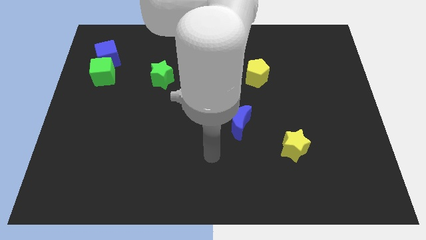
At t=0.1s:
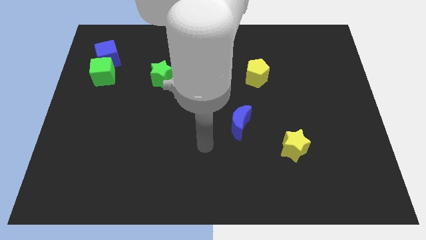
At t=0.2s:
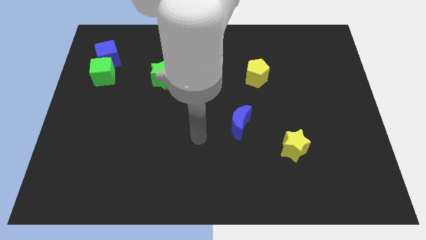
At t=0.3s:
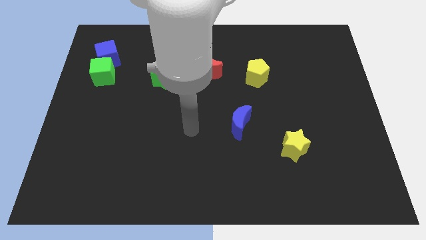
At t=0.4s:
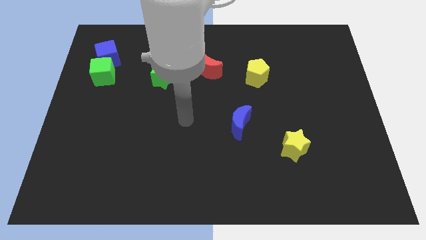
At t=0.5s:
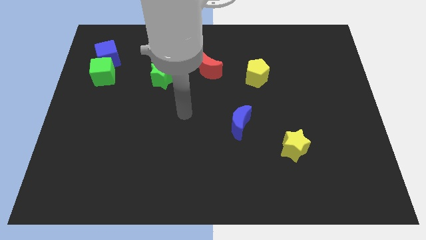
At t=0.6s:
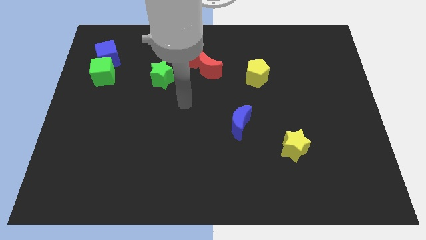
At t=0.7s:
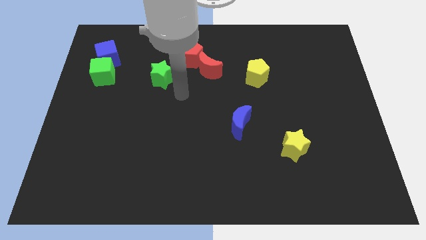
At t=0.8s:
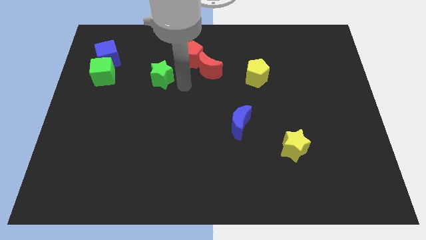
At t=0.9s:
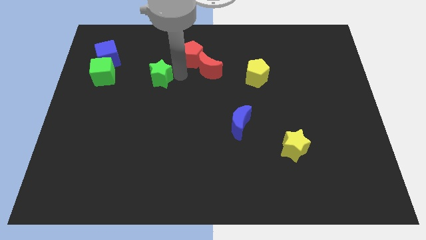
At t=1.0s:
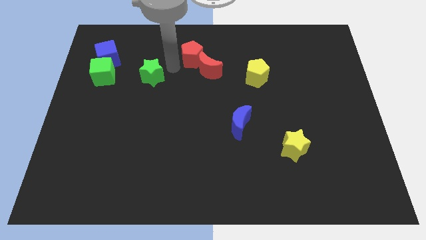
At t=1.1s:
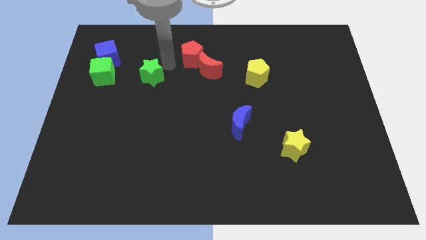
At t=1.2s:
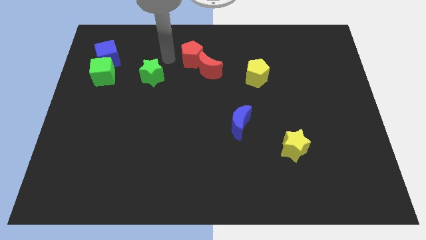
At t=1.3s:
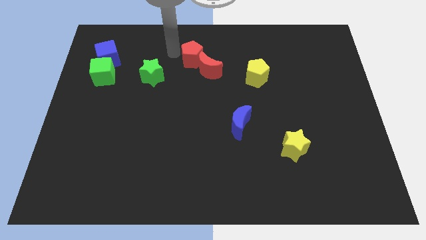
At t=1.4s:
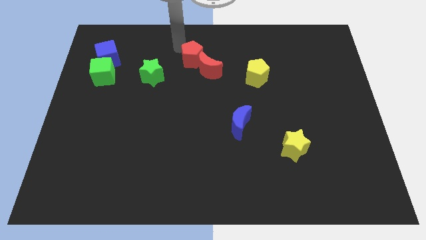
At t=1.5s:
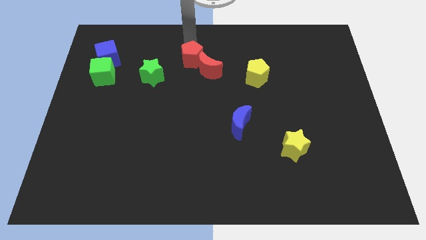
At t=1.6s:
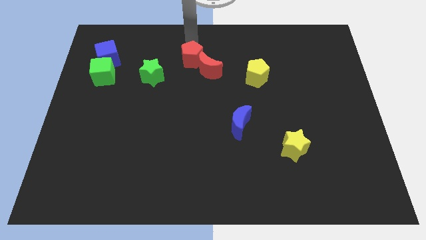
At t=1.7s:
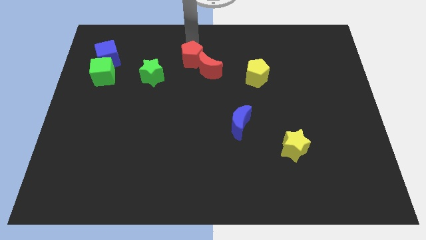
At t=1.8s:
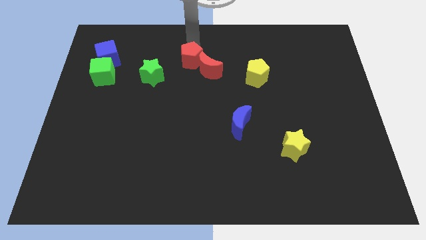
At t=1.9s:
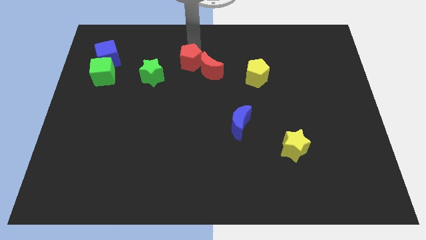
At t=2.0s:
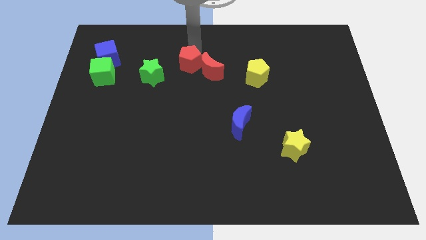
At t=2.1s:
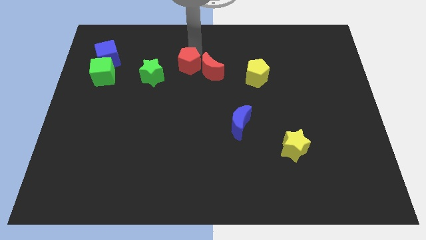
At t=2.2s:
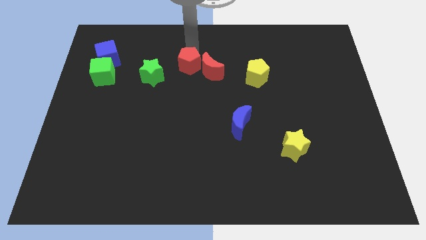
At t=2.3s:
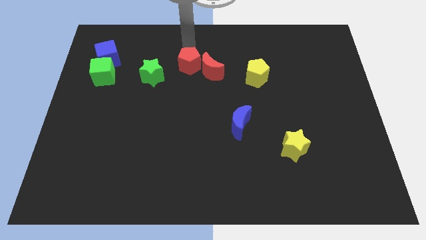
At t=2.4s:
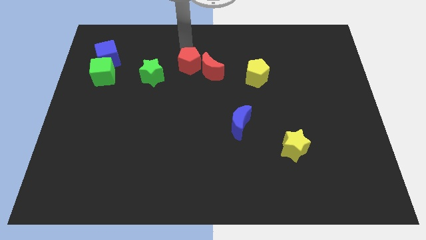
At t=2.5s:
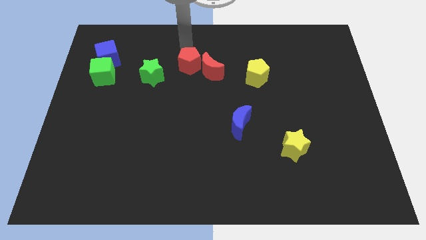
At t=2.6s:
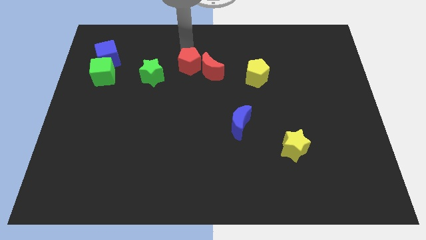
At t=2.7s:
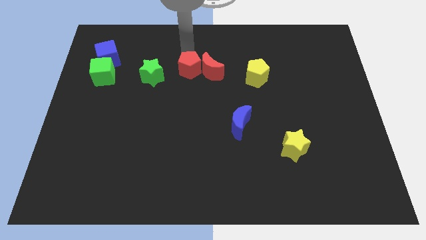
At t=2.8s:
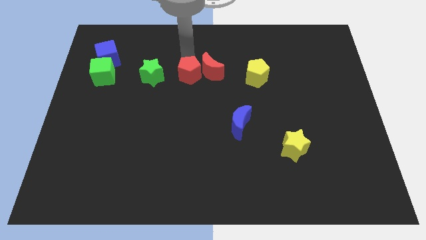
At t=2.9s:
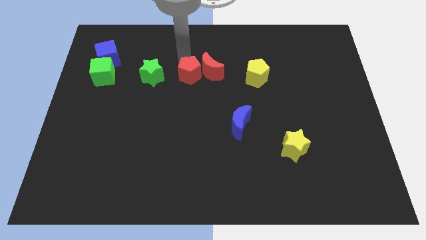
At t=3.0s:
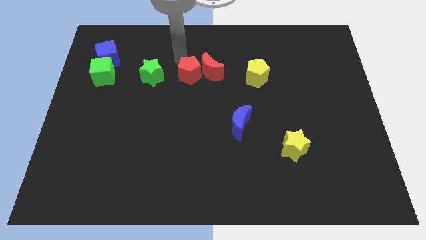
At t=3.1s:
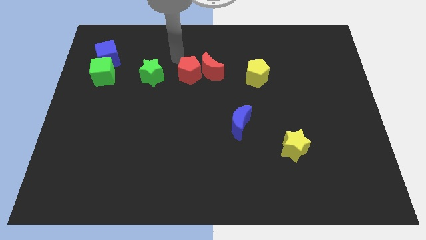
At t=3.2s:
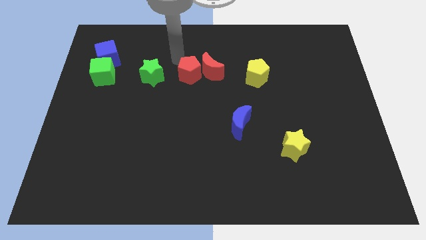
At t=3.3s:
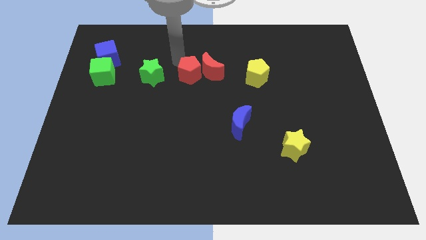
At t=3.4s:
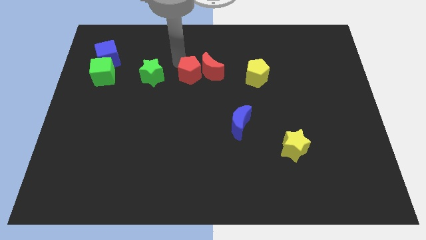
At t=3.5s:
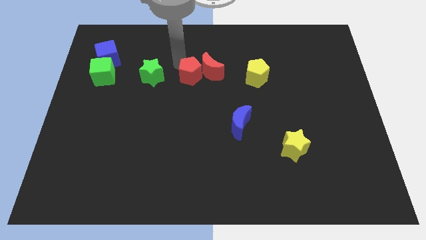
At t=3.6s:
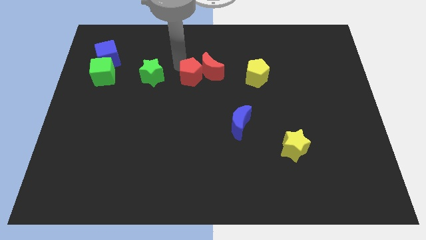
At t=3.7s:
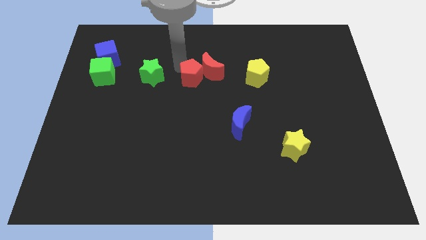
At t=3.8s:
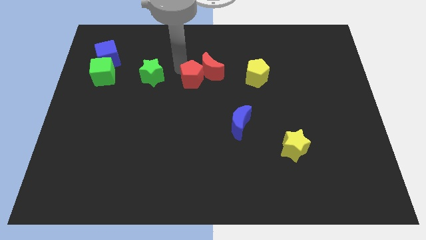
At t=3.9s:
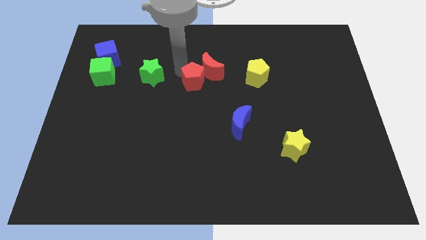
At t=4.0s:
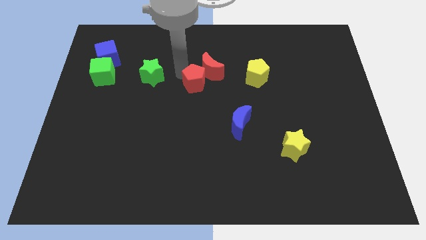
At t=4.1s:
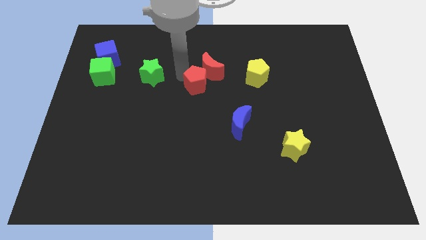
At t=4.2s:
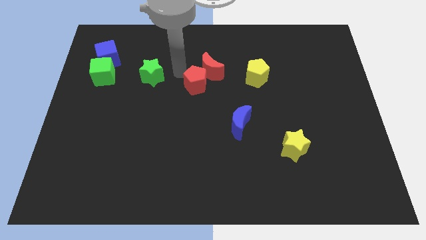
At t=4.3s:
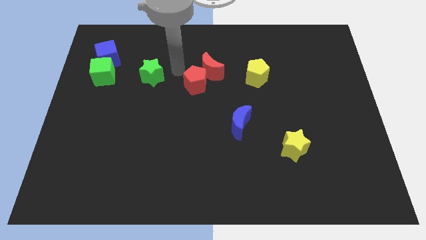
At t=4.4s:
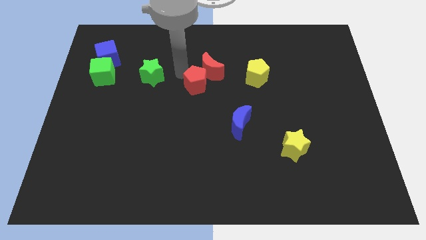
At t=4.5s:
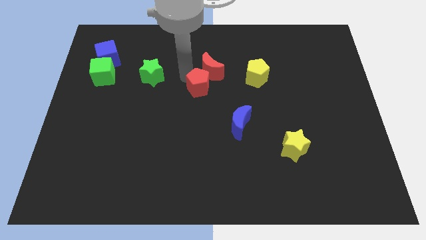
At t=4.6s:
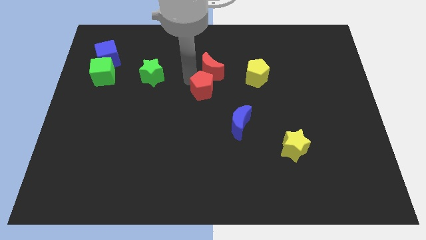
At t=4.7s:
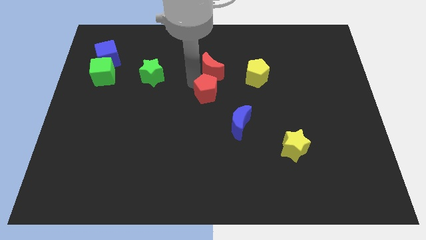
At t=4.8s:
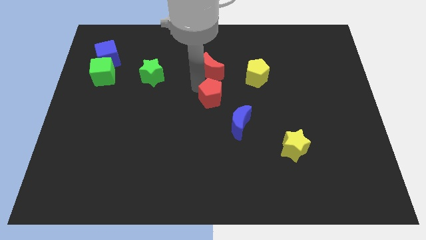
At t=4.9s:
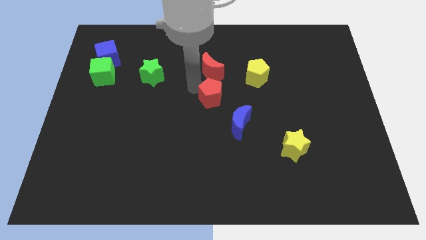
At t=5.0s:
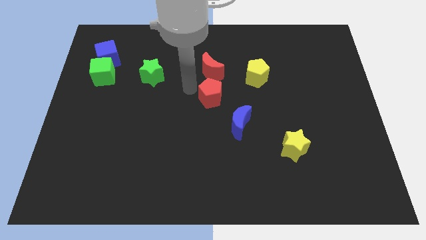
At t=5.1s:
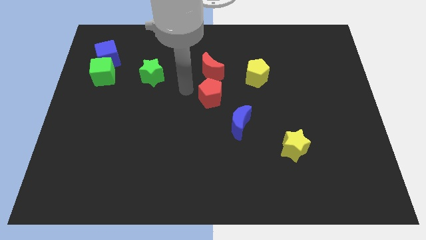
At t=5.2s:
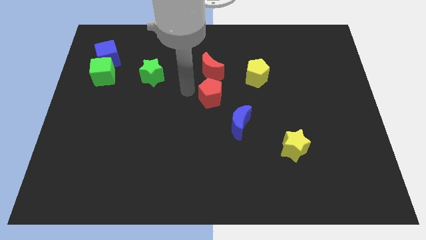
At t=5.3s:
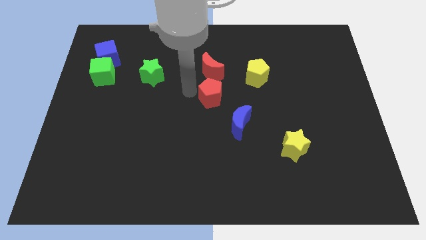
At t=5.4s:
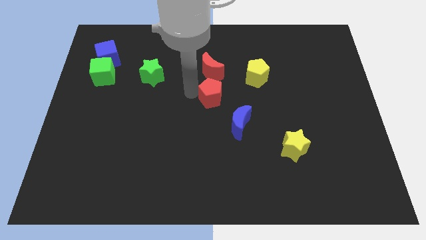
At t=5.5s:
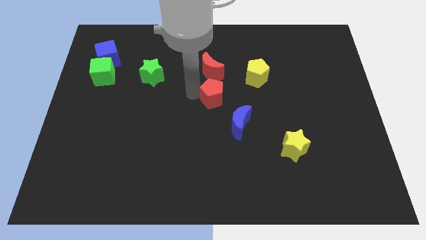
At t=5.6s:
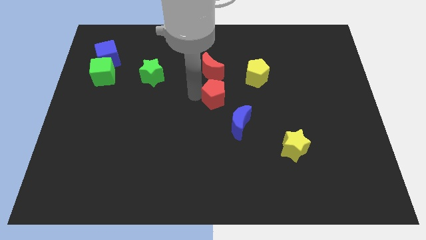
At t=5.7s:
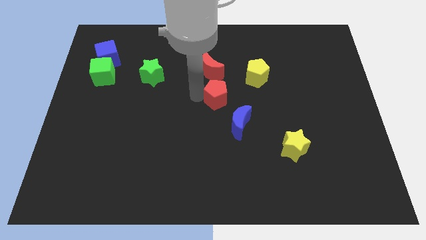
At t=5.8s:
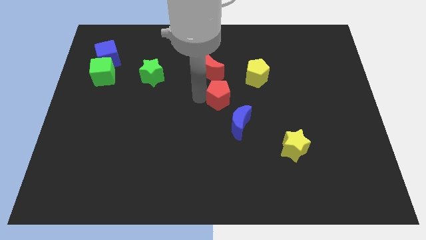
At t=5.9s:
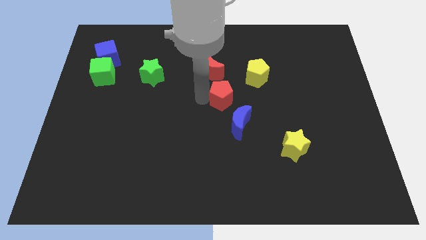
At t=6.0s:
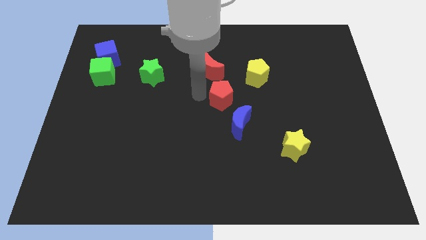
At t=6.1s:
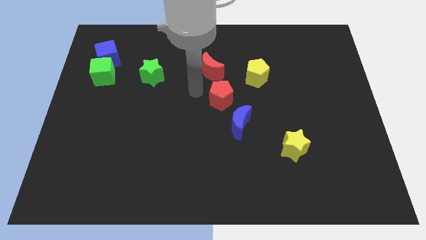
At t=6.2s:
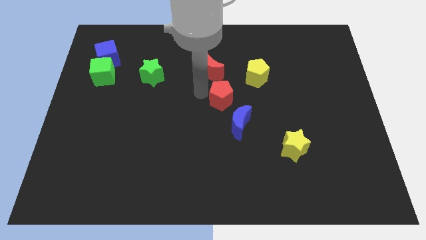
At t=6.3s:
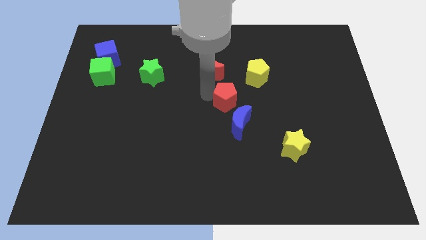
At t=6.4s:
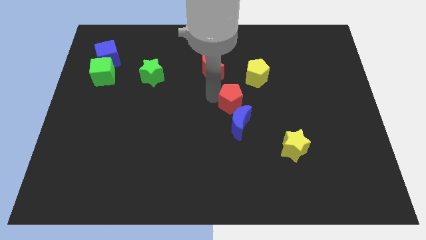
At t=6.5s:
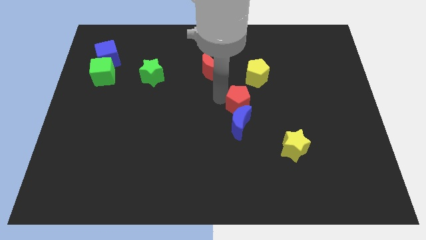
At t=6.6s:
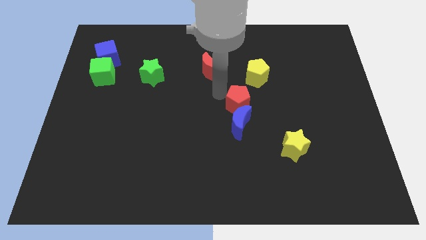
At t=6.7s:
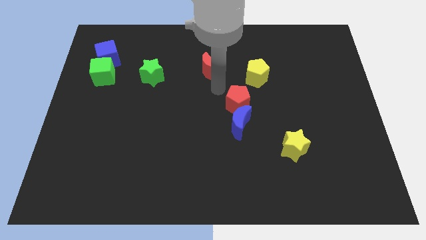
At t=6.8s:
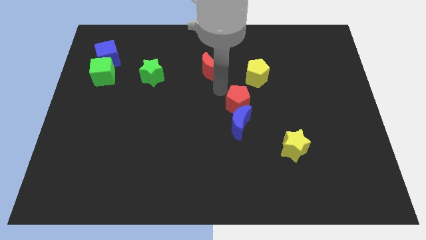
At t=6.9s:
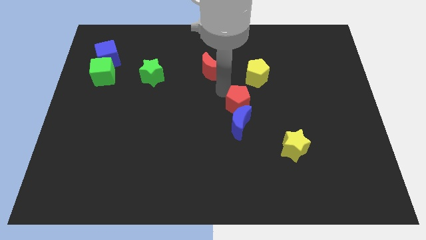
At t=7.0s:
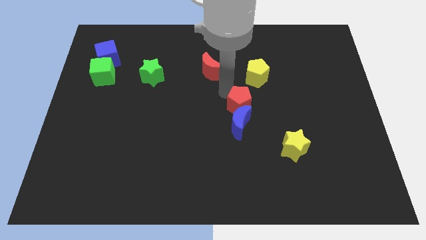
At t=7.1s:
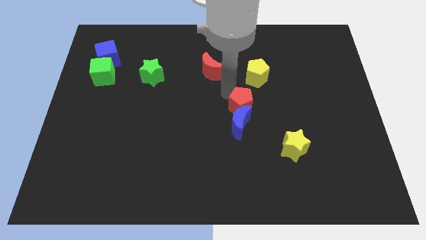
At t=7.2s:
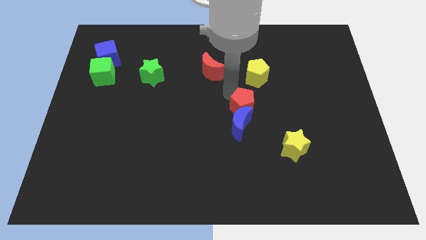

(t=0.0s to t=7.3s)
push the red pentagon downwards and right diagonally

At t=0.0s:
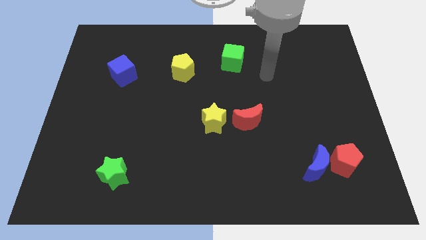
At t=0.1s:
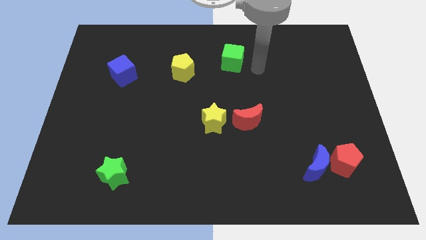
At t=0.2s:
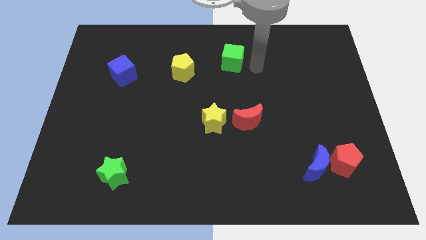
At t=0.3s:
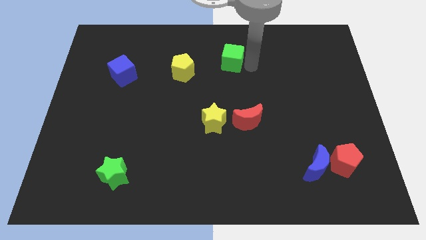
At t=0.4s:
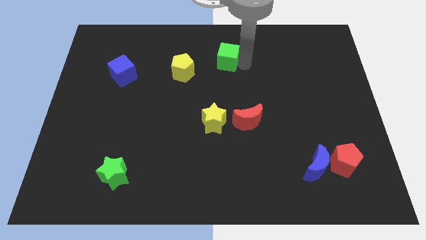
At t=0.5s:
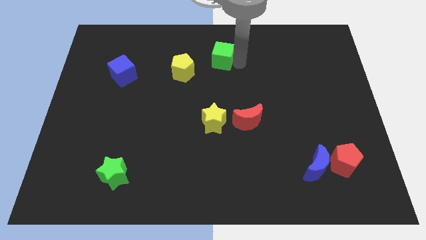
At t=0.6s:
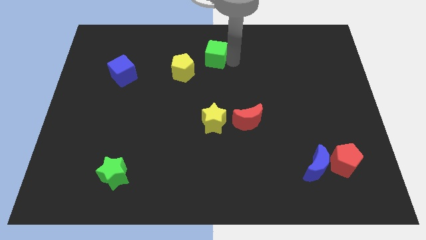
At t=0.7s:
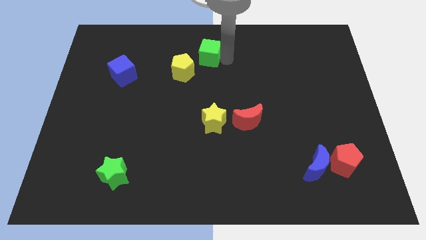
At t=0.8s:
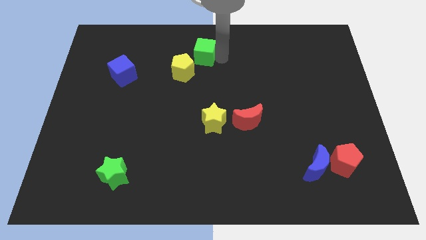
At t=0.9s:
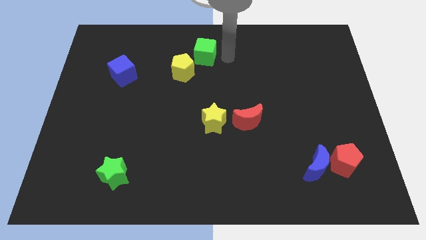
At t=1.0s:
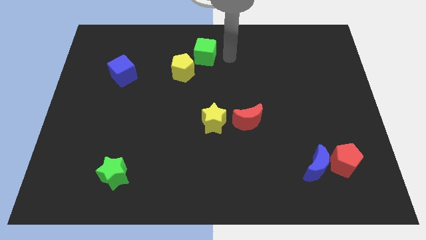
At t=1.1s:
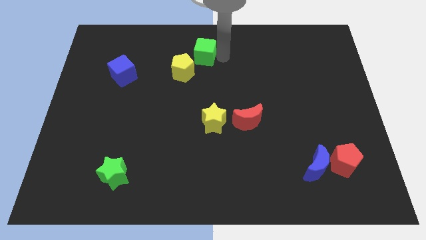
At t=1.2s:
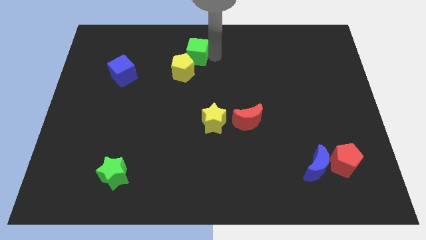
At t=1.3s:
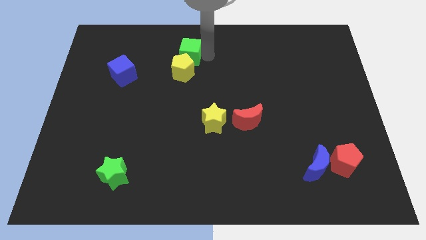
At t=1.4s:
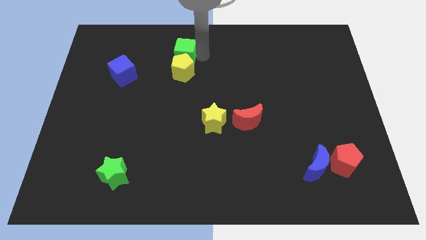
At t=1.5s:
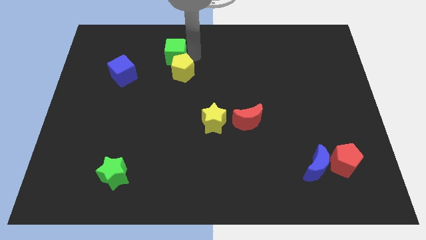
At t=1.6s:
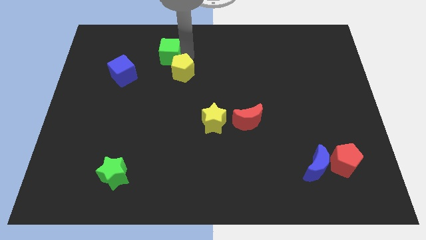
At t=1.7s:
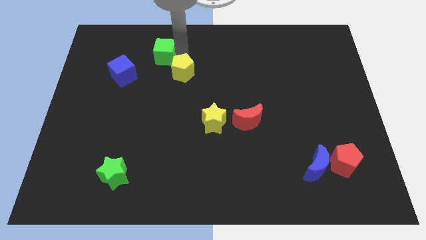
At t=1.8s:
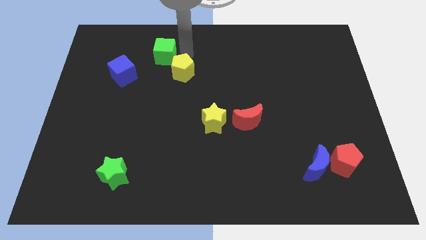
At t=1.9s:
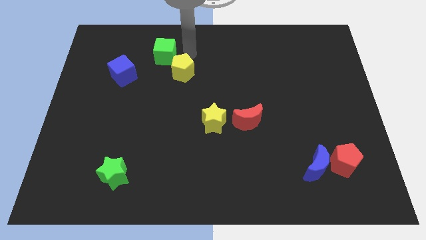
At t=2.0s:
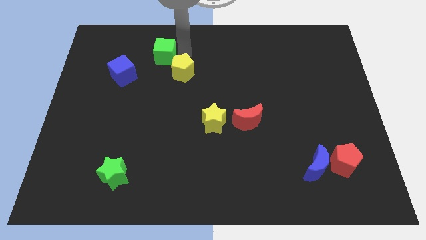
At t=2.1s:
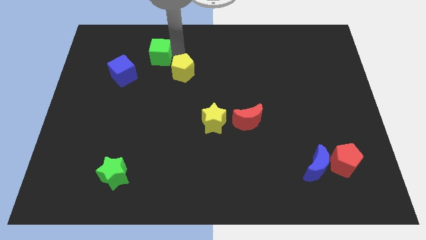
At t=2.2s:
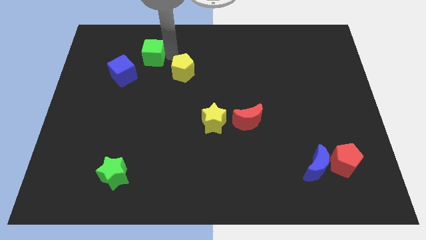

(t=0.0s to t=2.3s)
move the green cube left
